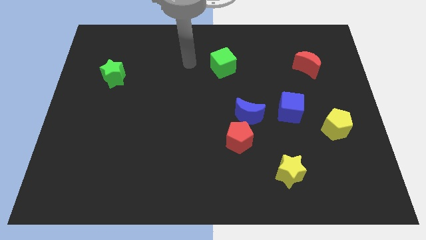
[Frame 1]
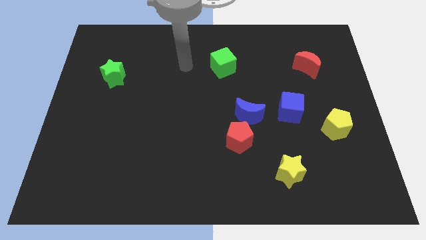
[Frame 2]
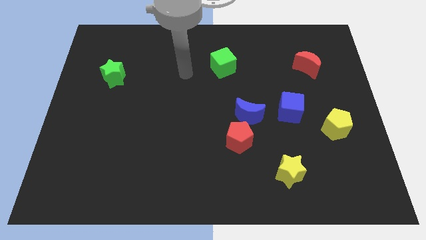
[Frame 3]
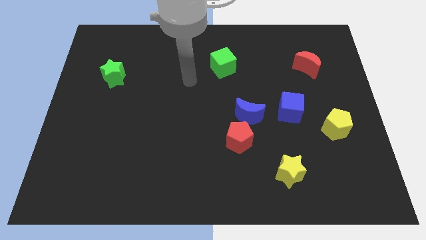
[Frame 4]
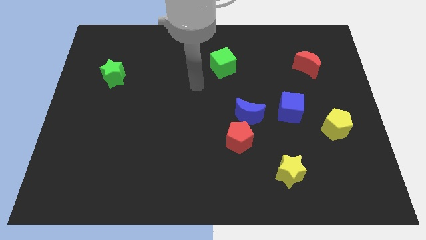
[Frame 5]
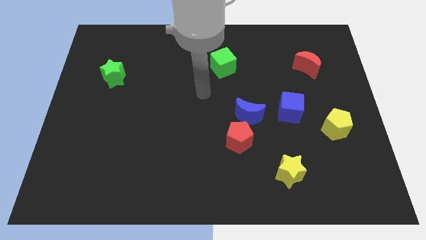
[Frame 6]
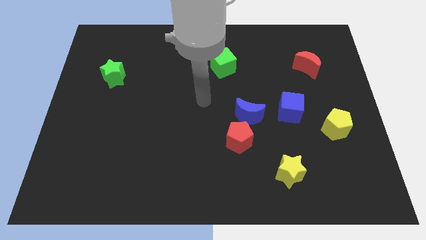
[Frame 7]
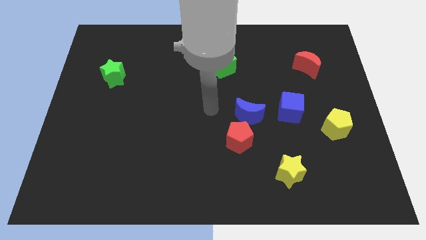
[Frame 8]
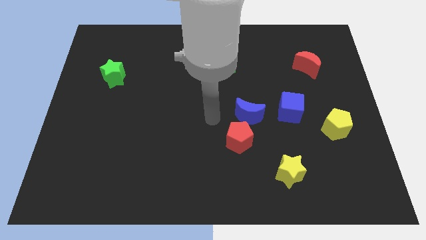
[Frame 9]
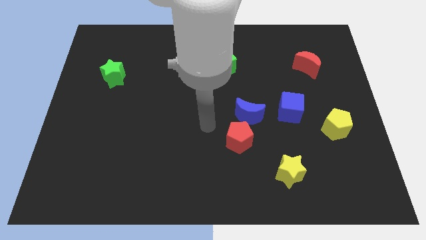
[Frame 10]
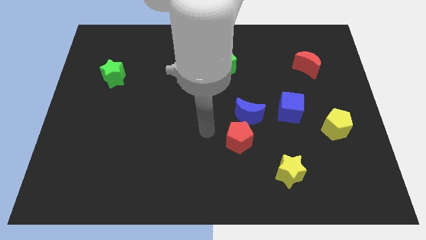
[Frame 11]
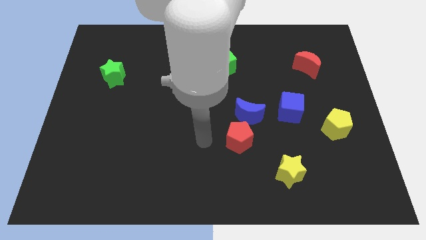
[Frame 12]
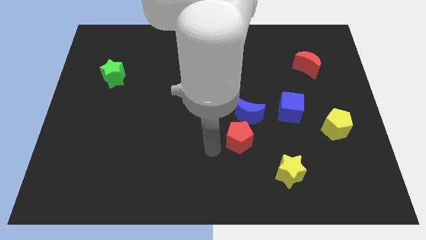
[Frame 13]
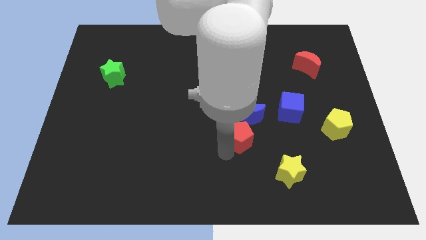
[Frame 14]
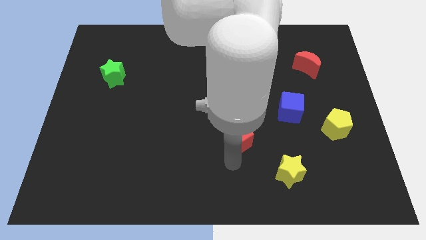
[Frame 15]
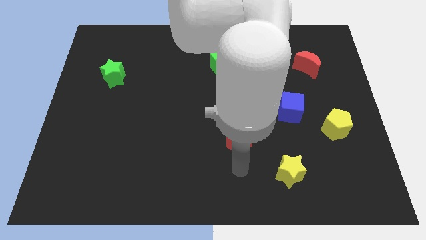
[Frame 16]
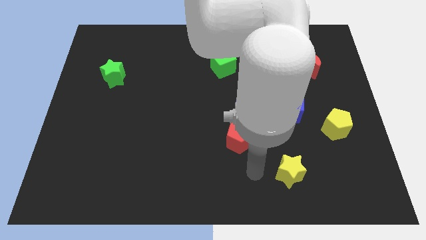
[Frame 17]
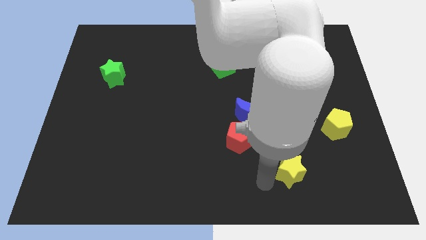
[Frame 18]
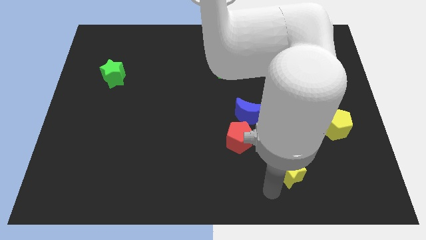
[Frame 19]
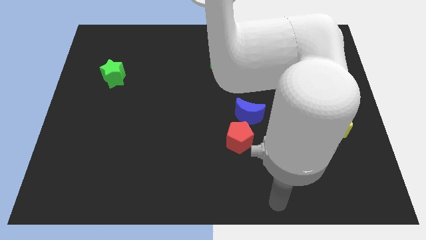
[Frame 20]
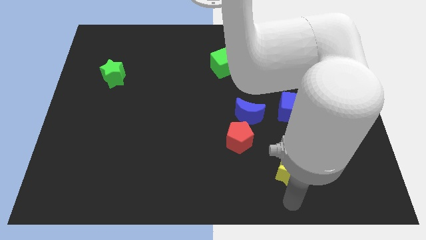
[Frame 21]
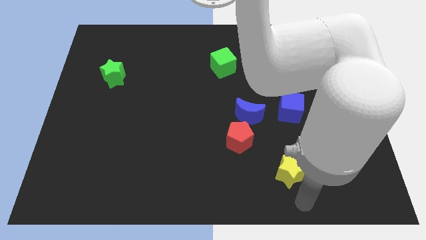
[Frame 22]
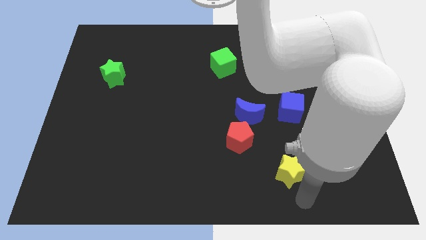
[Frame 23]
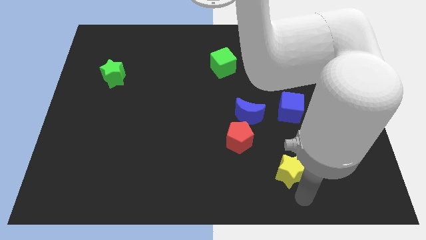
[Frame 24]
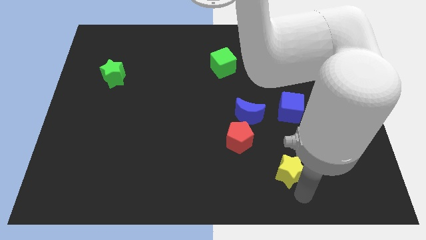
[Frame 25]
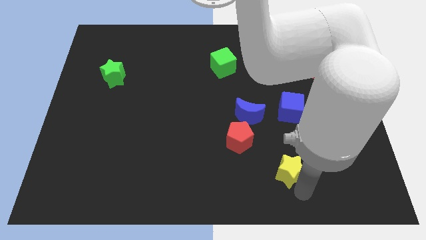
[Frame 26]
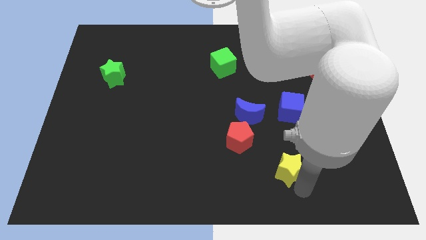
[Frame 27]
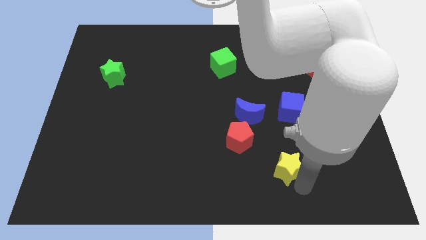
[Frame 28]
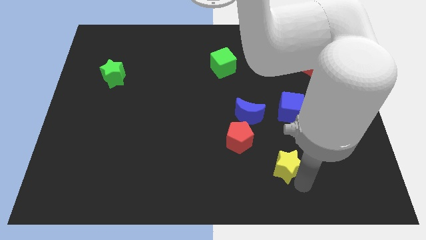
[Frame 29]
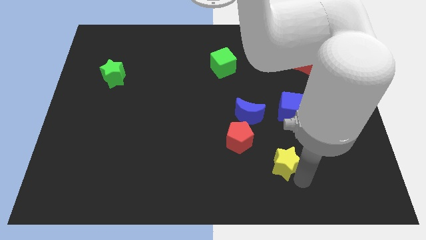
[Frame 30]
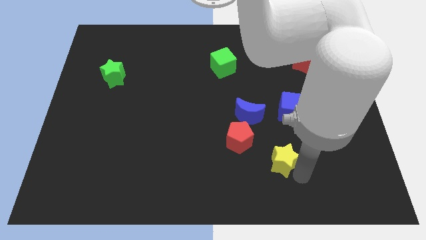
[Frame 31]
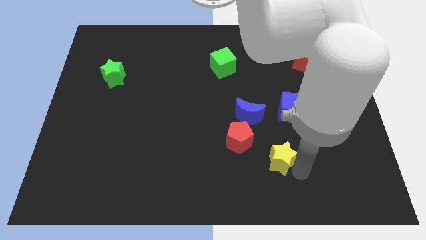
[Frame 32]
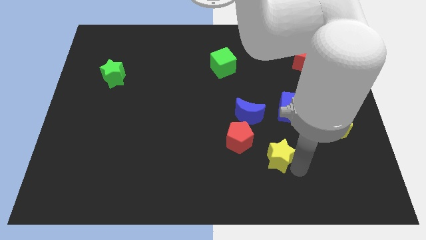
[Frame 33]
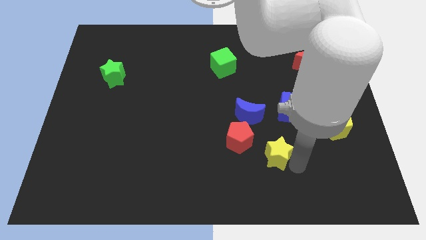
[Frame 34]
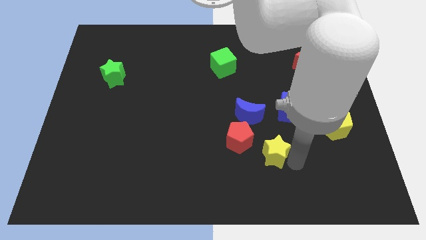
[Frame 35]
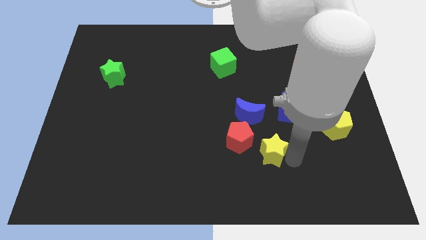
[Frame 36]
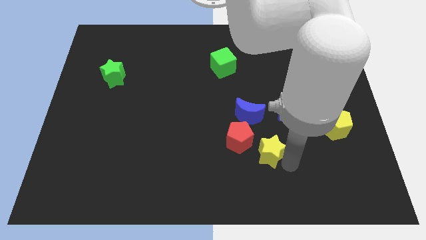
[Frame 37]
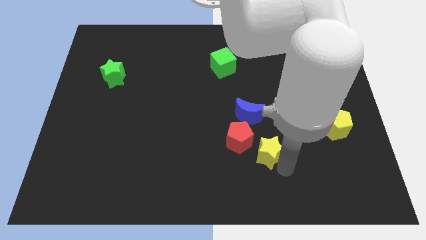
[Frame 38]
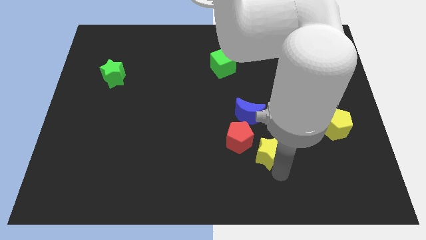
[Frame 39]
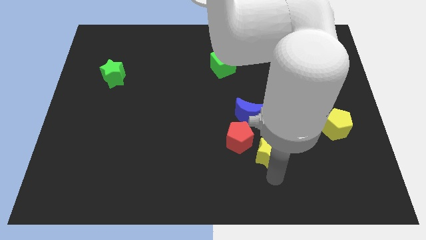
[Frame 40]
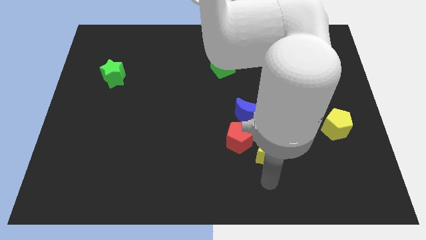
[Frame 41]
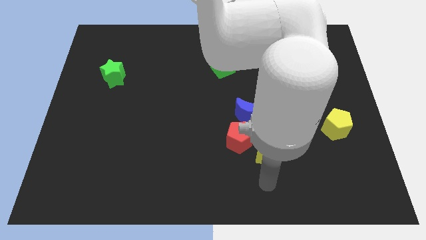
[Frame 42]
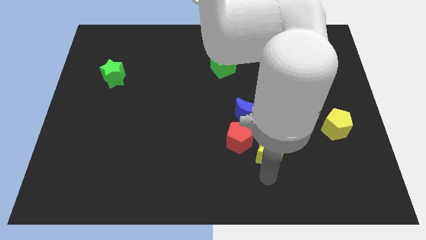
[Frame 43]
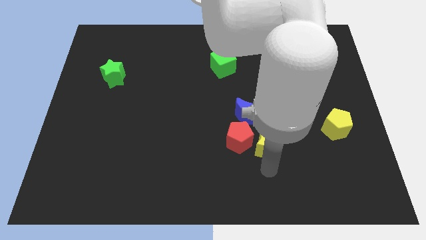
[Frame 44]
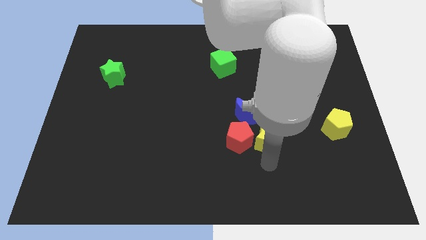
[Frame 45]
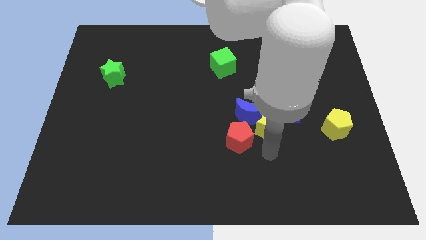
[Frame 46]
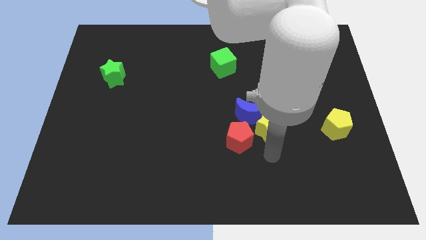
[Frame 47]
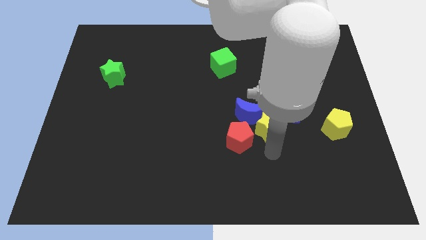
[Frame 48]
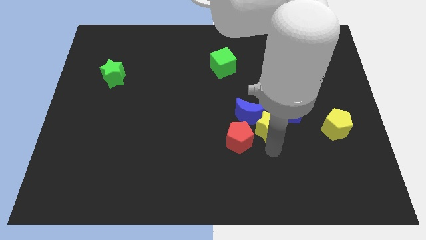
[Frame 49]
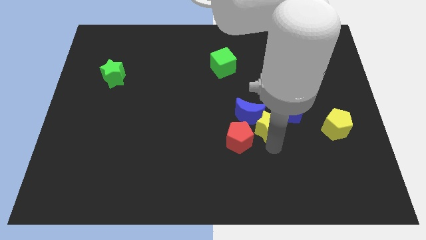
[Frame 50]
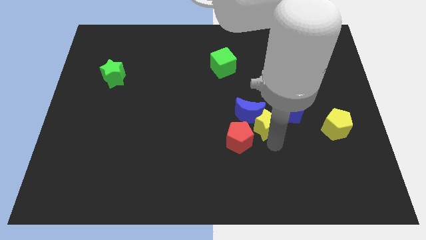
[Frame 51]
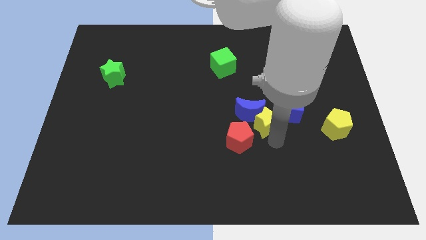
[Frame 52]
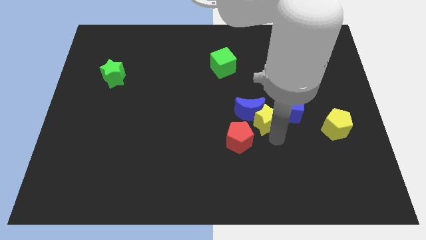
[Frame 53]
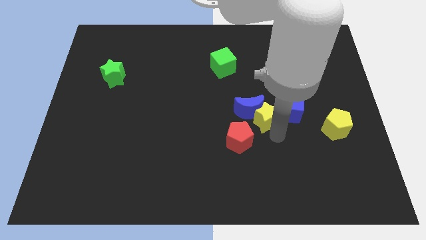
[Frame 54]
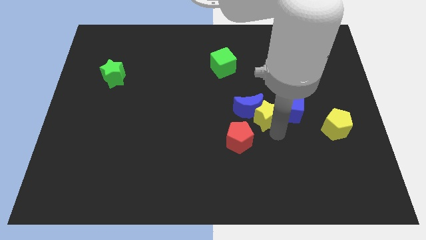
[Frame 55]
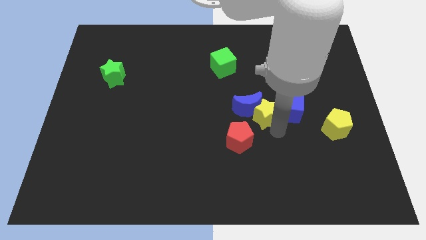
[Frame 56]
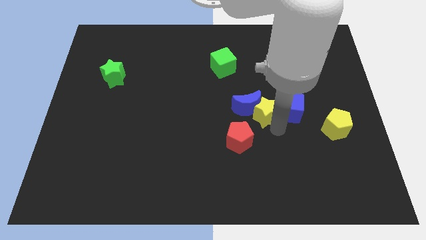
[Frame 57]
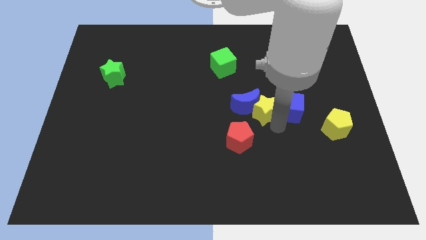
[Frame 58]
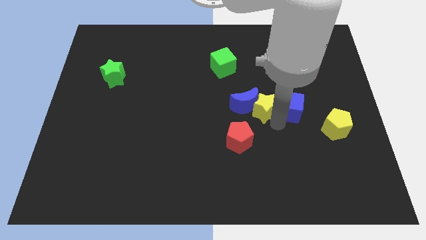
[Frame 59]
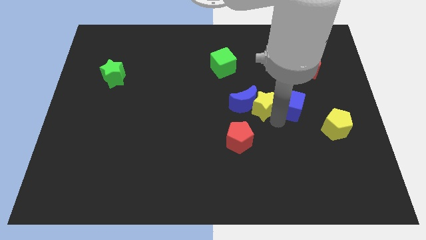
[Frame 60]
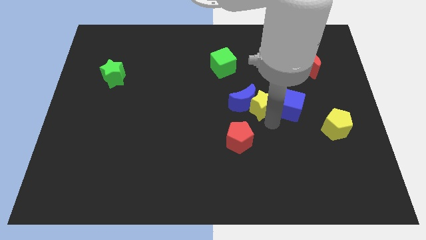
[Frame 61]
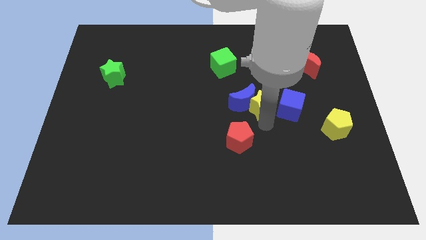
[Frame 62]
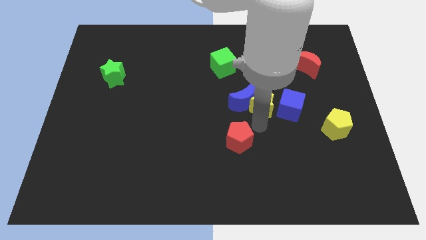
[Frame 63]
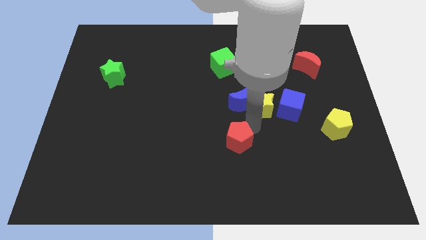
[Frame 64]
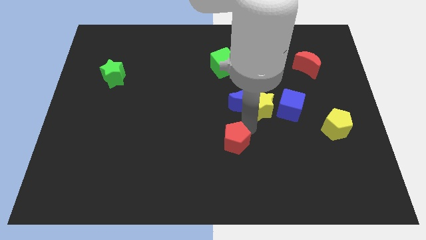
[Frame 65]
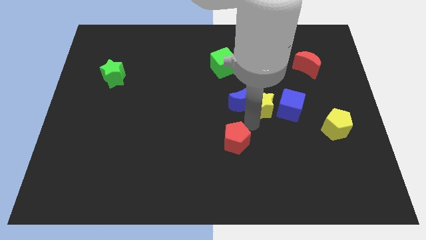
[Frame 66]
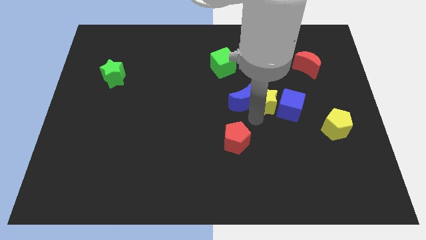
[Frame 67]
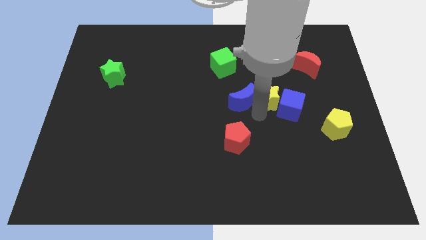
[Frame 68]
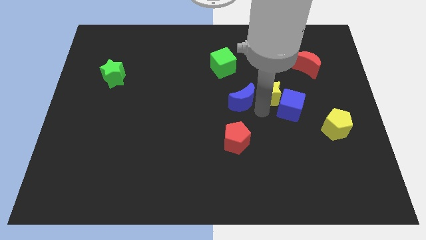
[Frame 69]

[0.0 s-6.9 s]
push the yellow star upwards

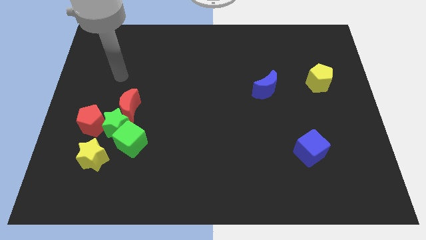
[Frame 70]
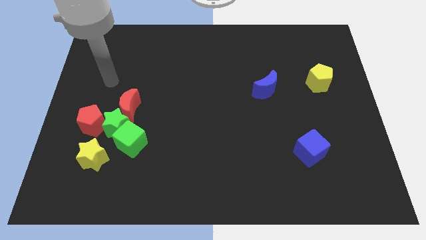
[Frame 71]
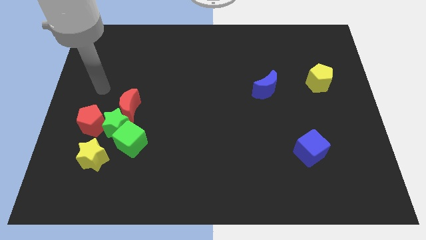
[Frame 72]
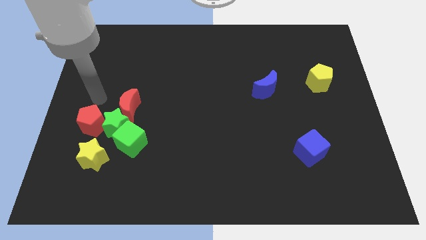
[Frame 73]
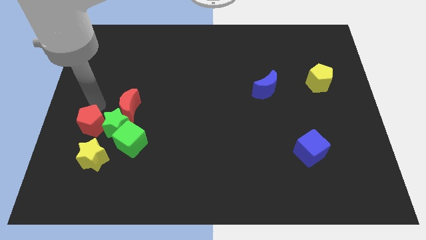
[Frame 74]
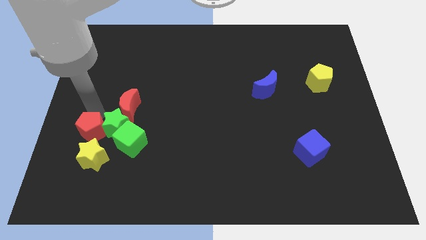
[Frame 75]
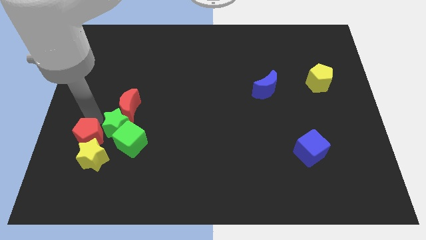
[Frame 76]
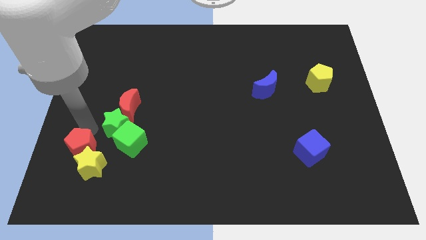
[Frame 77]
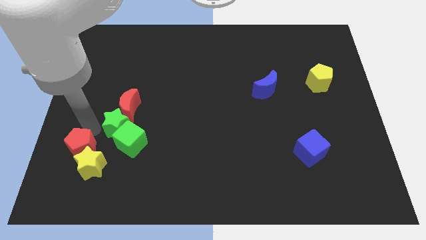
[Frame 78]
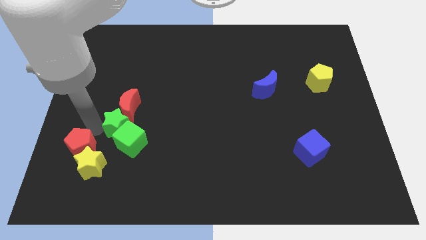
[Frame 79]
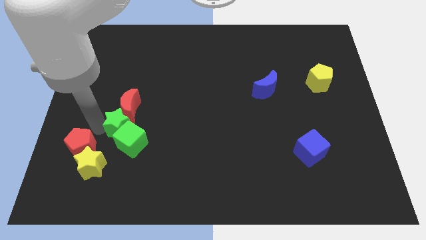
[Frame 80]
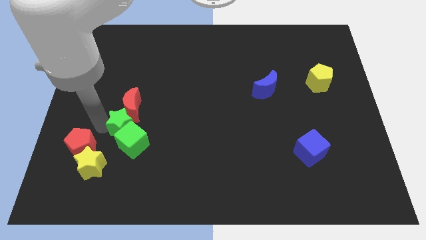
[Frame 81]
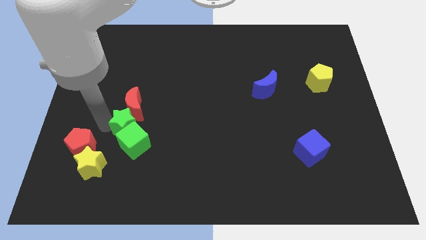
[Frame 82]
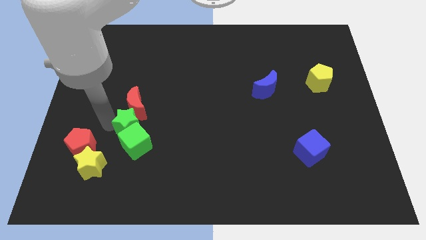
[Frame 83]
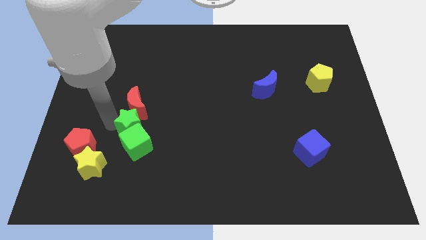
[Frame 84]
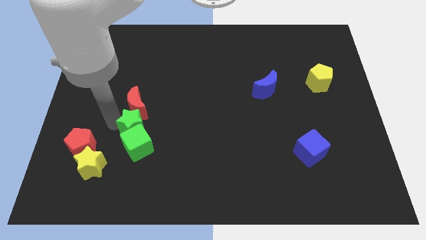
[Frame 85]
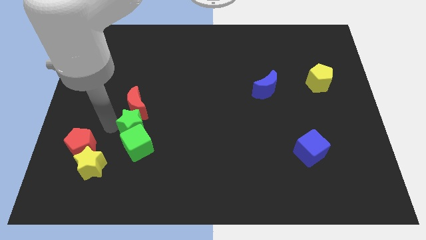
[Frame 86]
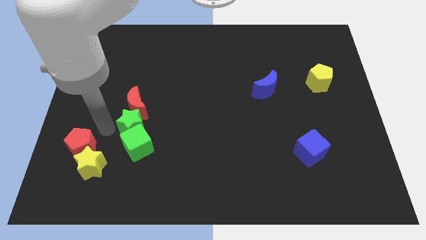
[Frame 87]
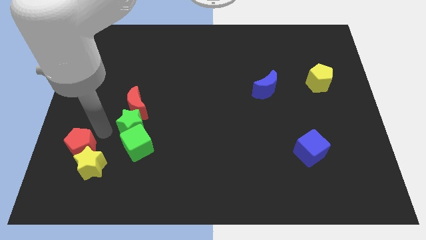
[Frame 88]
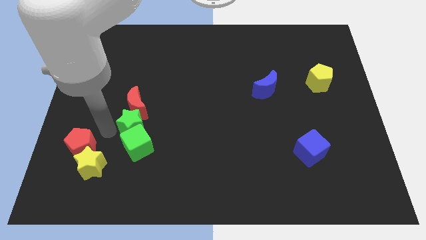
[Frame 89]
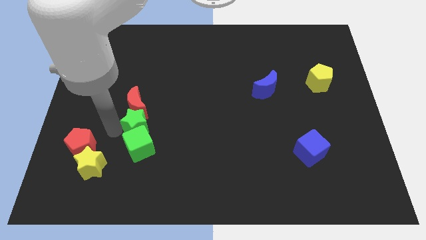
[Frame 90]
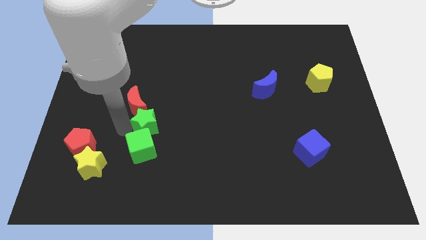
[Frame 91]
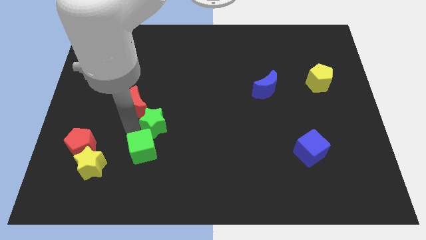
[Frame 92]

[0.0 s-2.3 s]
move the green star right somewhat
